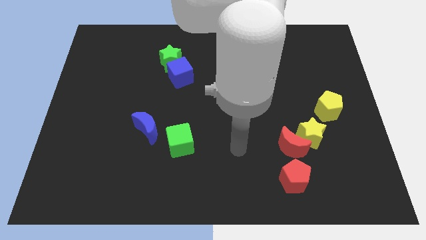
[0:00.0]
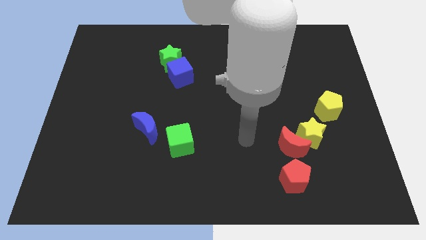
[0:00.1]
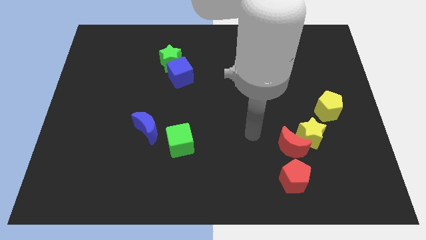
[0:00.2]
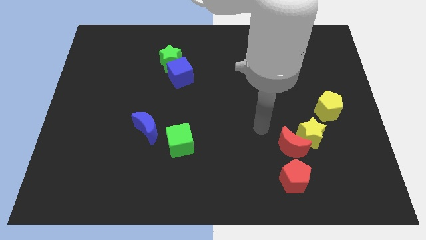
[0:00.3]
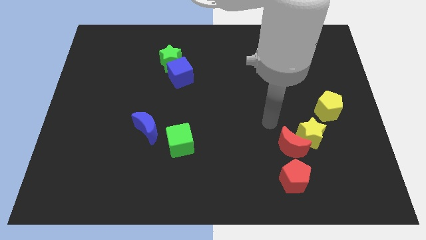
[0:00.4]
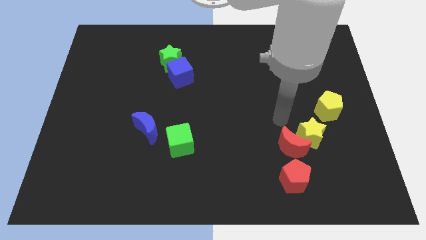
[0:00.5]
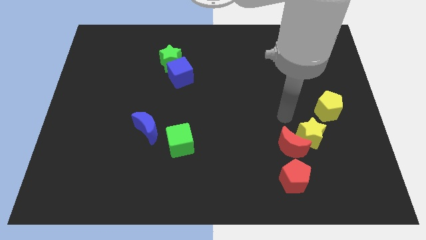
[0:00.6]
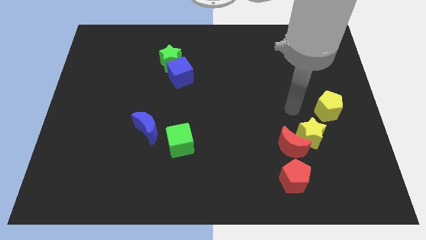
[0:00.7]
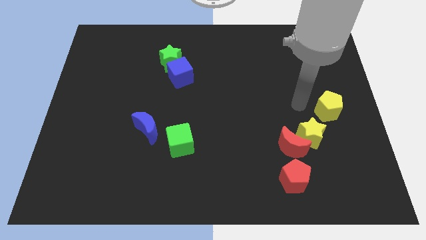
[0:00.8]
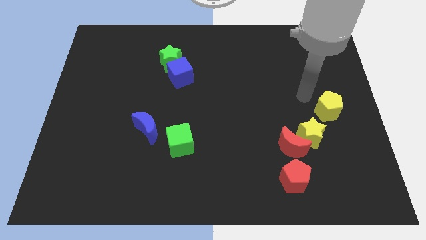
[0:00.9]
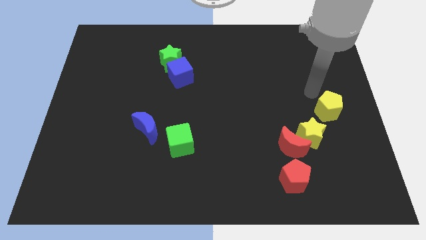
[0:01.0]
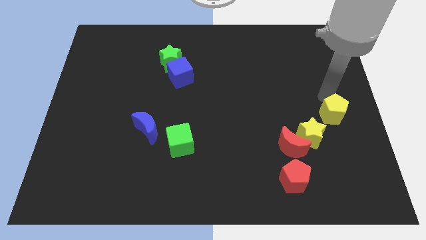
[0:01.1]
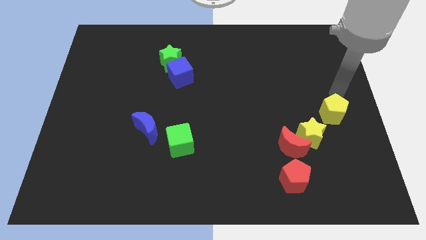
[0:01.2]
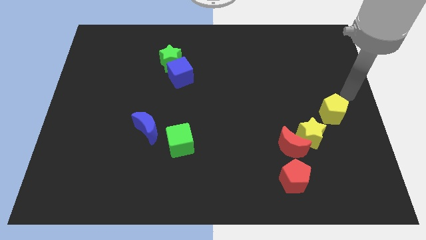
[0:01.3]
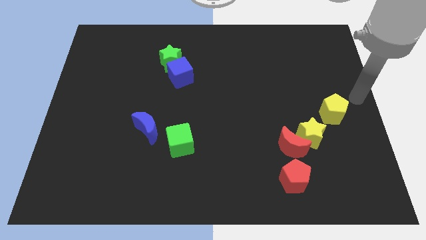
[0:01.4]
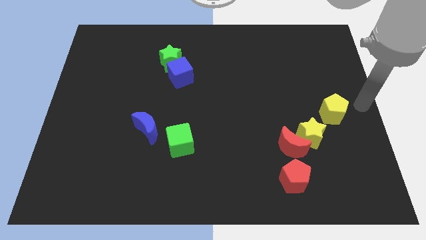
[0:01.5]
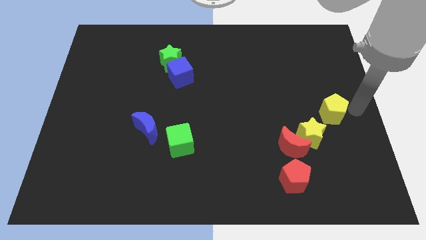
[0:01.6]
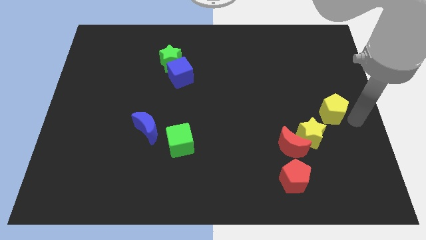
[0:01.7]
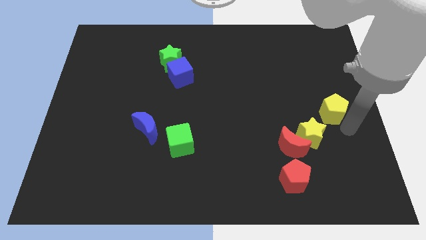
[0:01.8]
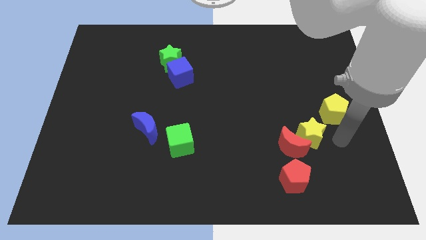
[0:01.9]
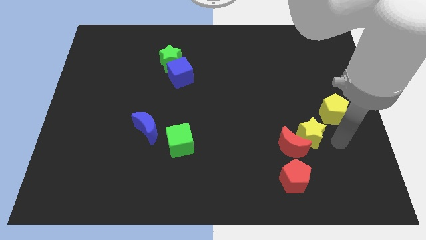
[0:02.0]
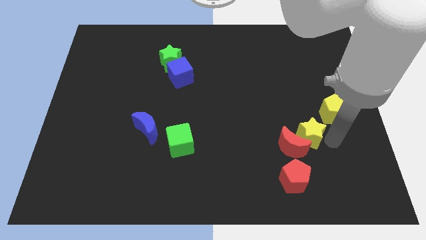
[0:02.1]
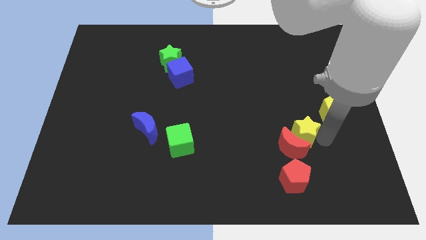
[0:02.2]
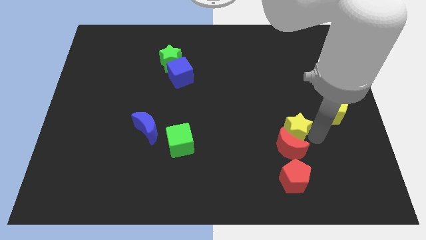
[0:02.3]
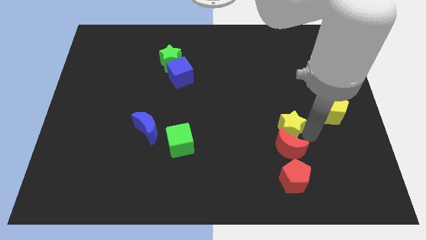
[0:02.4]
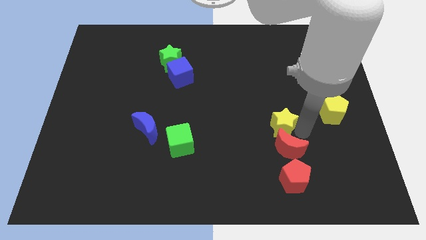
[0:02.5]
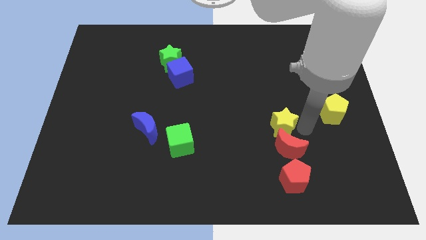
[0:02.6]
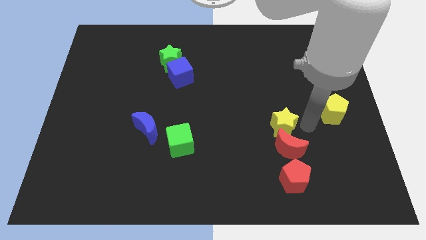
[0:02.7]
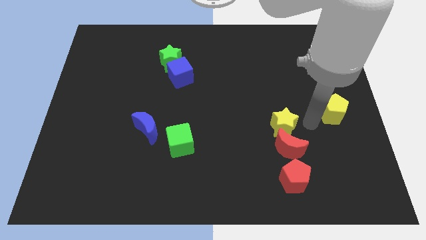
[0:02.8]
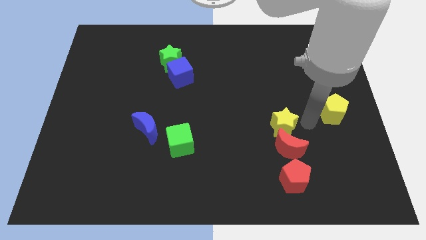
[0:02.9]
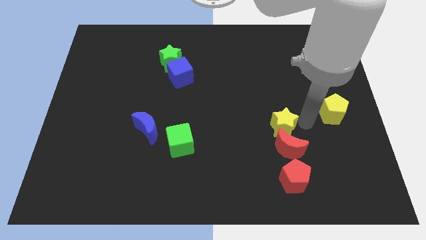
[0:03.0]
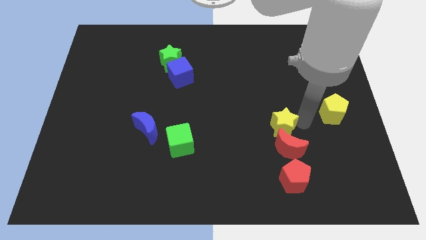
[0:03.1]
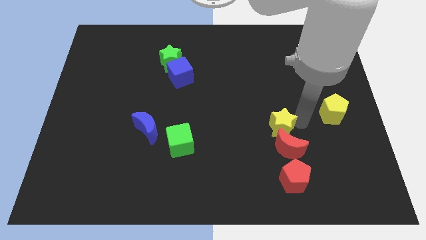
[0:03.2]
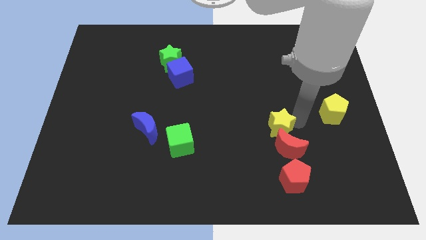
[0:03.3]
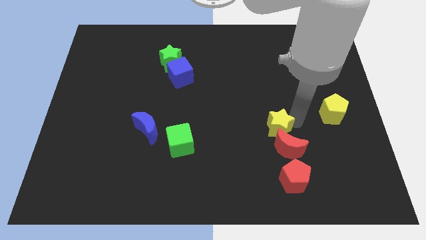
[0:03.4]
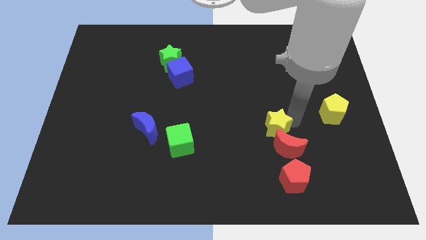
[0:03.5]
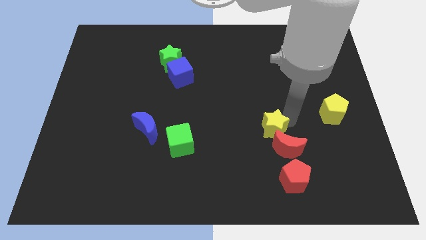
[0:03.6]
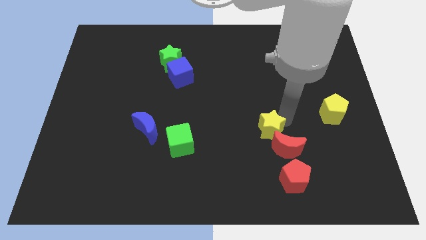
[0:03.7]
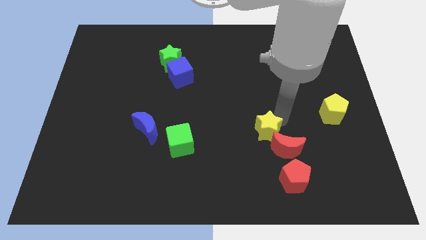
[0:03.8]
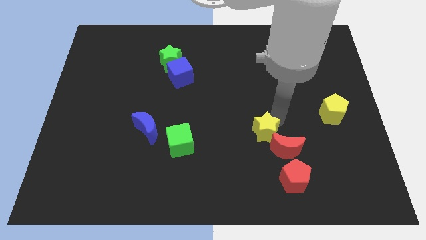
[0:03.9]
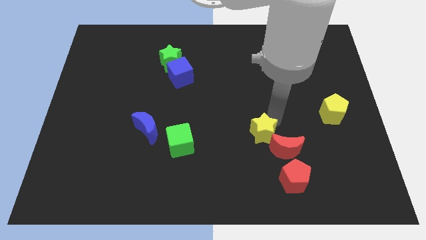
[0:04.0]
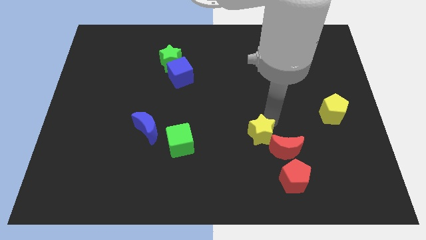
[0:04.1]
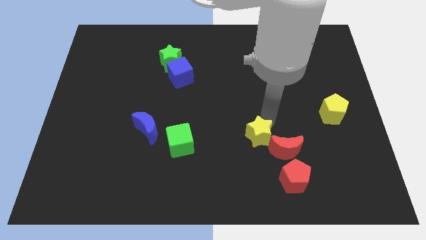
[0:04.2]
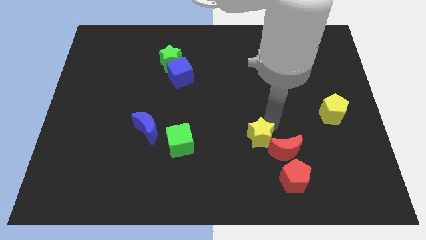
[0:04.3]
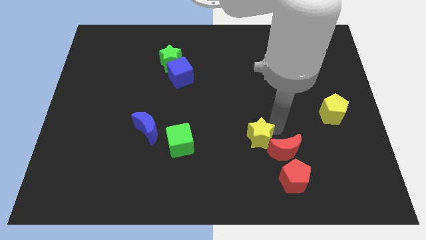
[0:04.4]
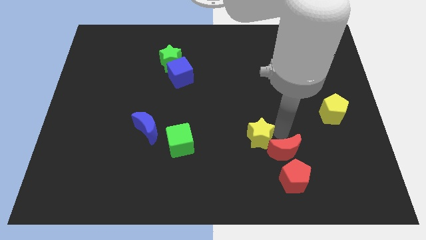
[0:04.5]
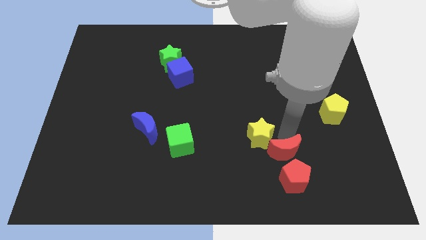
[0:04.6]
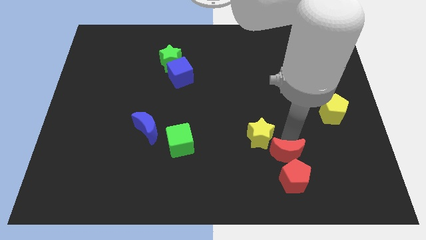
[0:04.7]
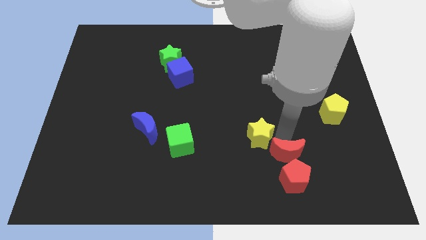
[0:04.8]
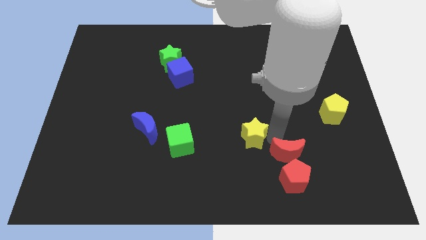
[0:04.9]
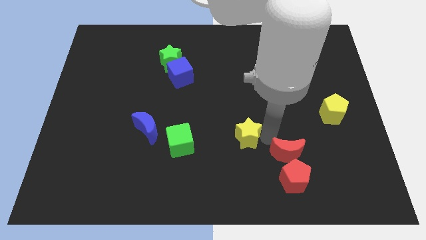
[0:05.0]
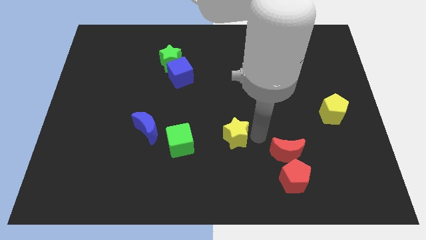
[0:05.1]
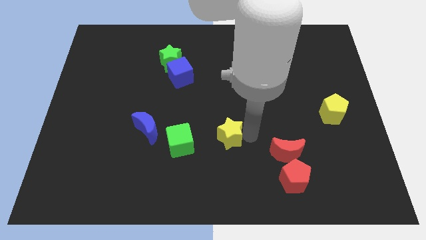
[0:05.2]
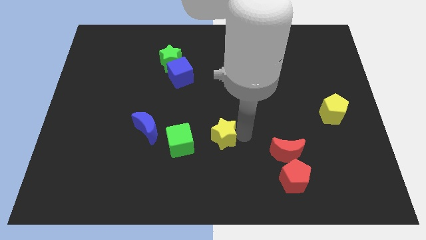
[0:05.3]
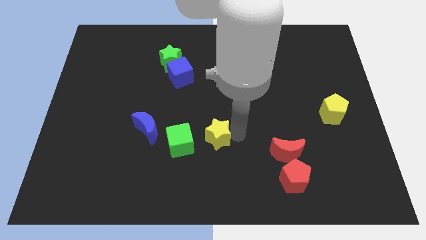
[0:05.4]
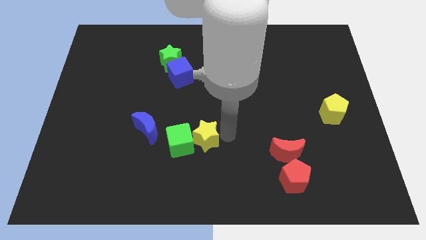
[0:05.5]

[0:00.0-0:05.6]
put the yellow star towards the green cube

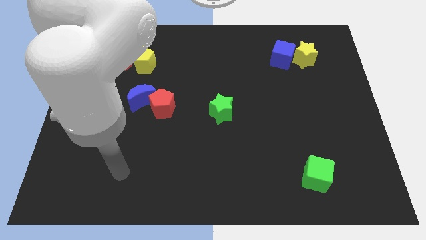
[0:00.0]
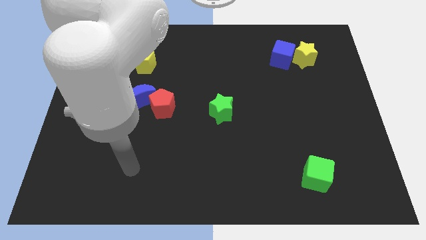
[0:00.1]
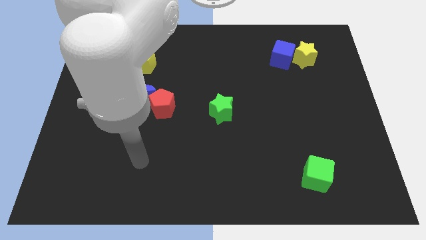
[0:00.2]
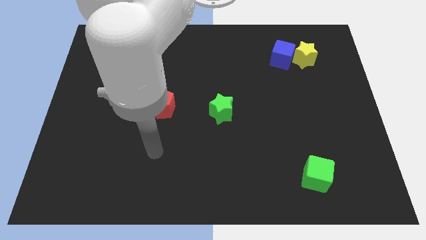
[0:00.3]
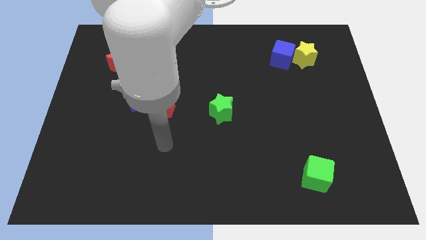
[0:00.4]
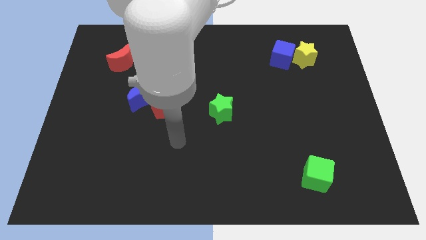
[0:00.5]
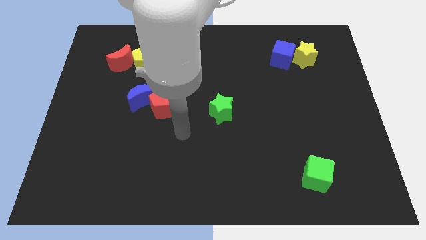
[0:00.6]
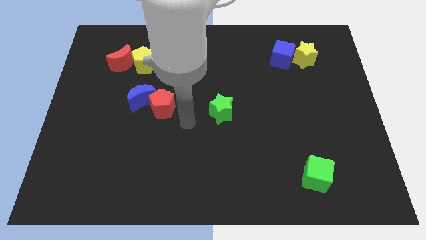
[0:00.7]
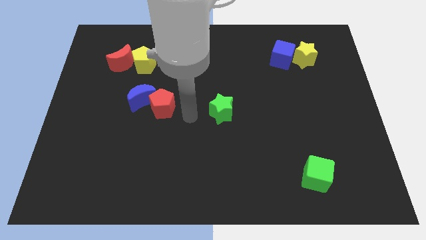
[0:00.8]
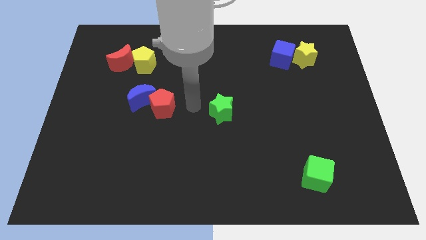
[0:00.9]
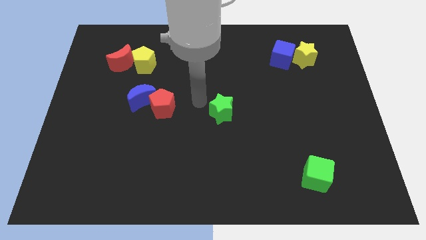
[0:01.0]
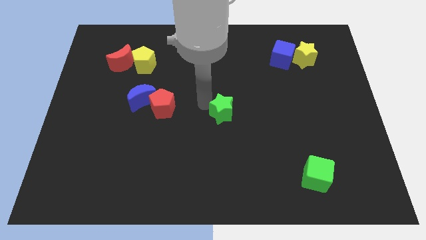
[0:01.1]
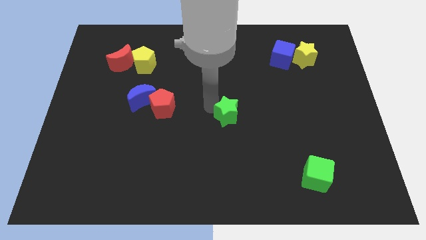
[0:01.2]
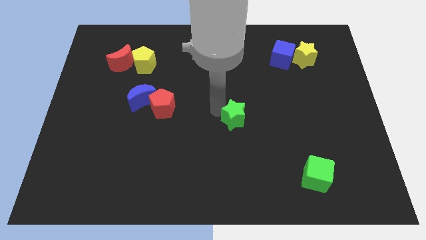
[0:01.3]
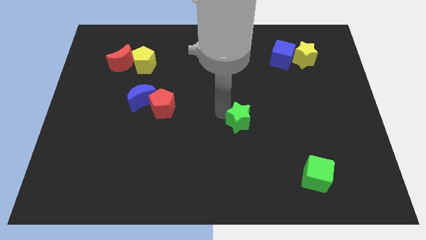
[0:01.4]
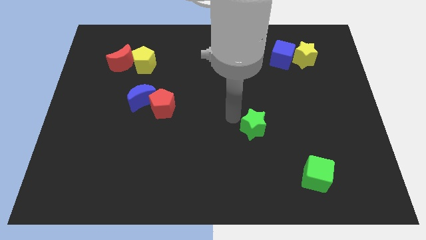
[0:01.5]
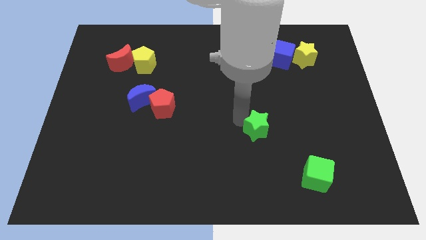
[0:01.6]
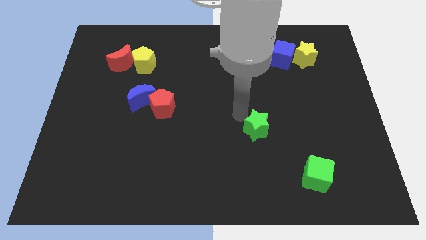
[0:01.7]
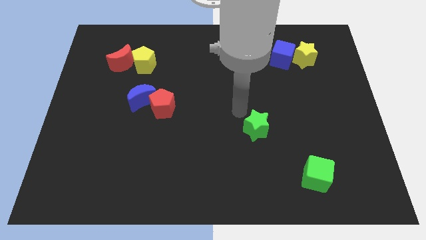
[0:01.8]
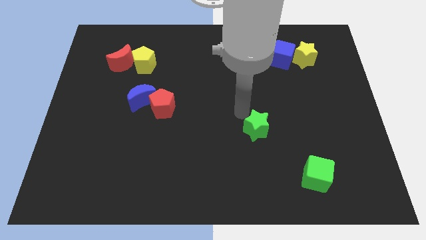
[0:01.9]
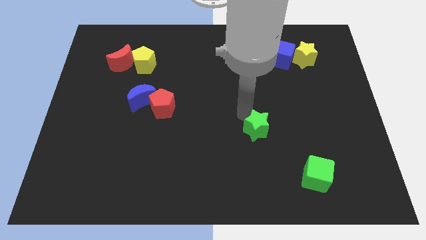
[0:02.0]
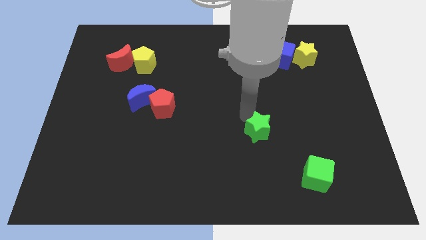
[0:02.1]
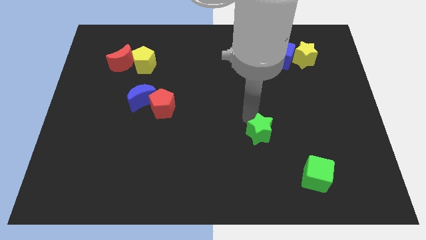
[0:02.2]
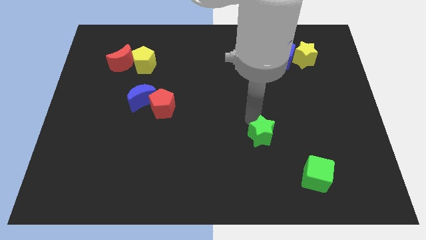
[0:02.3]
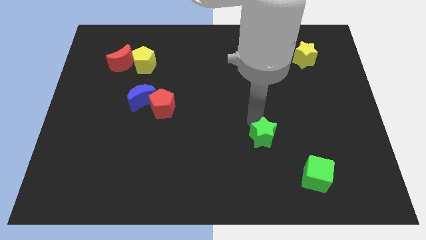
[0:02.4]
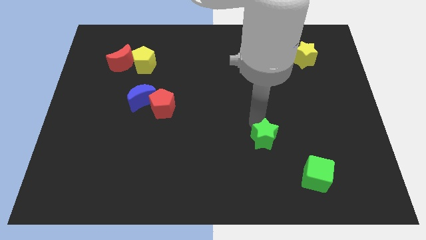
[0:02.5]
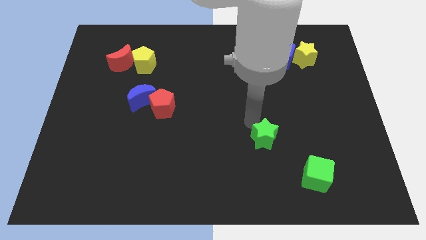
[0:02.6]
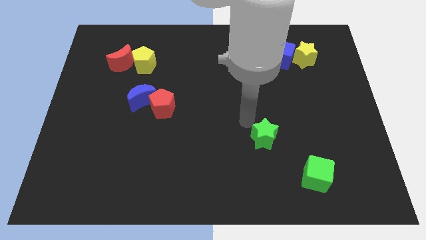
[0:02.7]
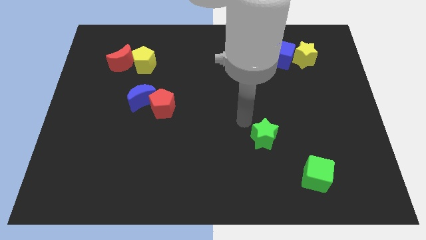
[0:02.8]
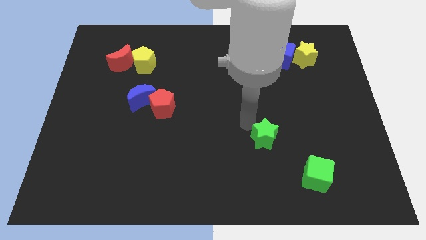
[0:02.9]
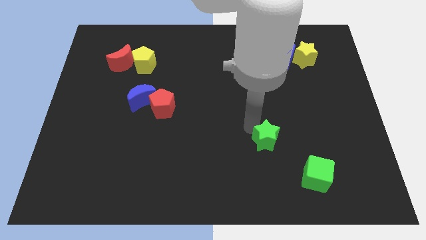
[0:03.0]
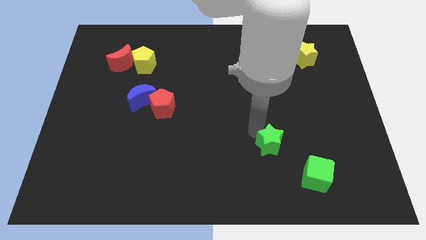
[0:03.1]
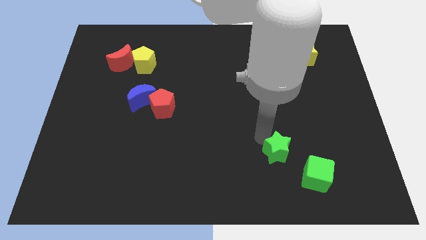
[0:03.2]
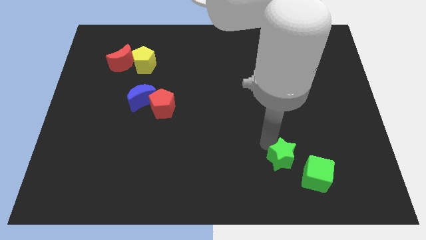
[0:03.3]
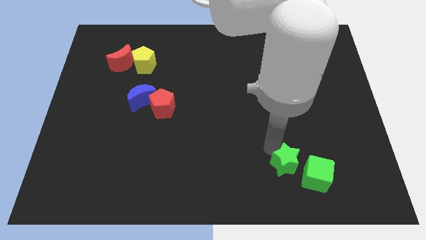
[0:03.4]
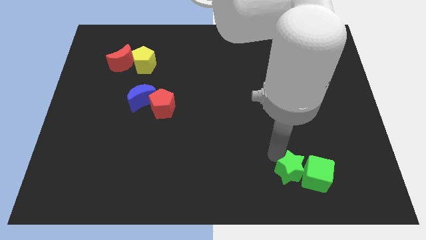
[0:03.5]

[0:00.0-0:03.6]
push the green star close to the green cube
